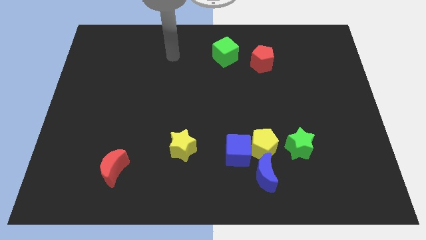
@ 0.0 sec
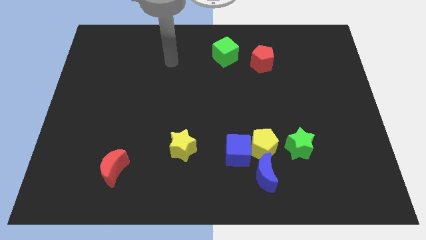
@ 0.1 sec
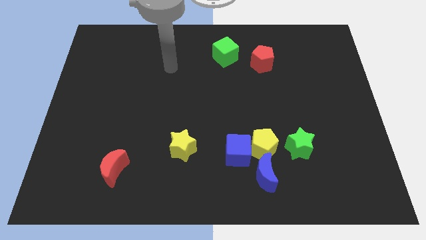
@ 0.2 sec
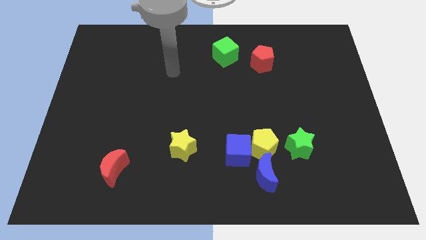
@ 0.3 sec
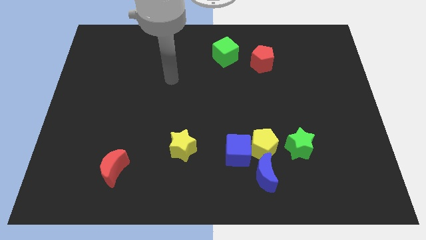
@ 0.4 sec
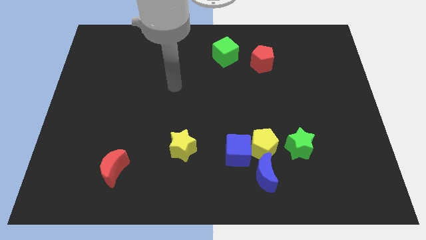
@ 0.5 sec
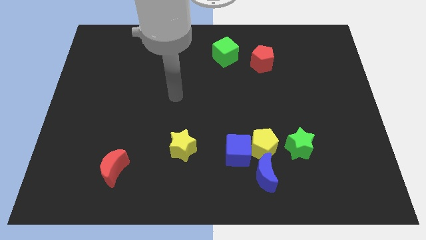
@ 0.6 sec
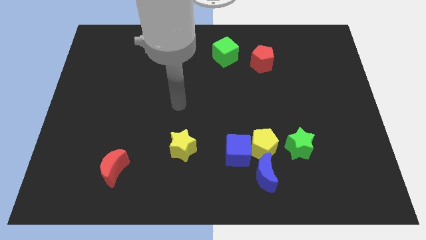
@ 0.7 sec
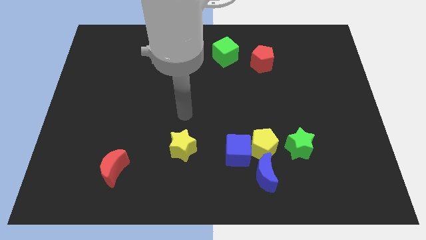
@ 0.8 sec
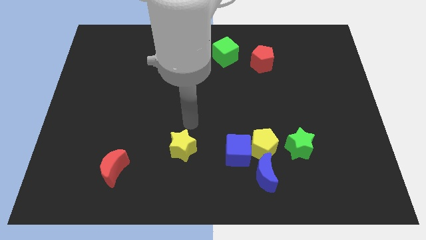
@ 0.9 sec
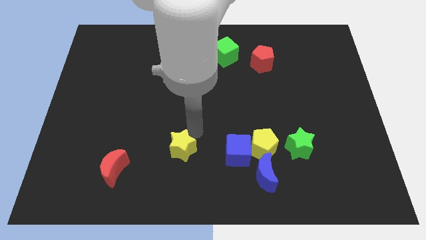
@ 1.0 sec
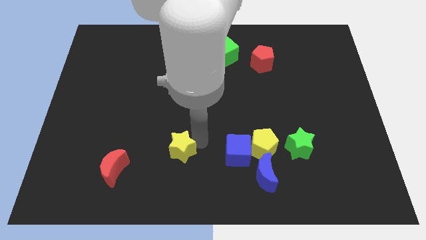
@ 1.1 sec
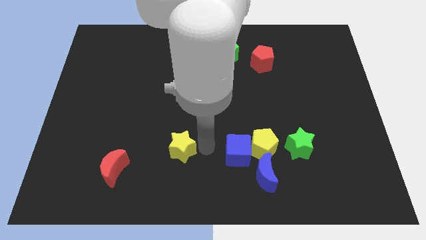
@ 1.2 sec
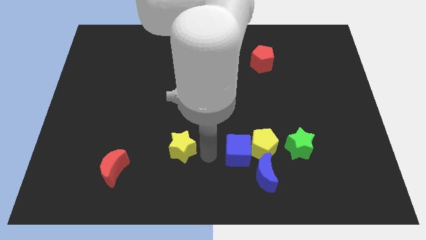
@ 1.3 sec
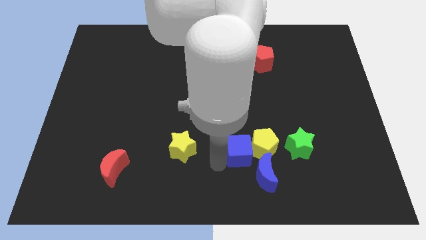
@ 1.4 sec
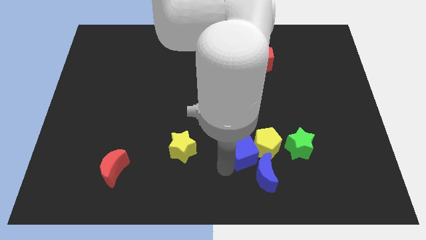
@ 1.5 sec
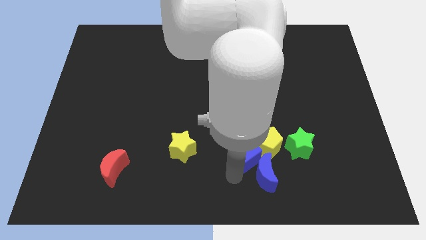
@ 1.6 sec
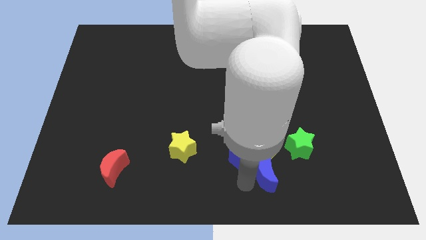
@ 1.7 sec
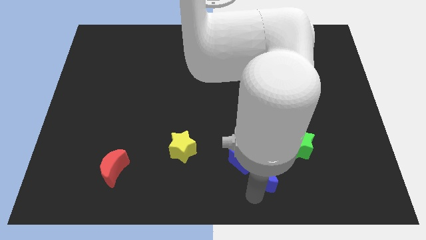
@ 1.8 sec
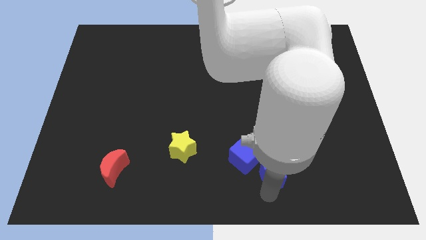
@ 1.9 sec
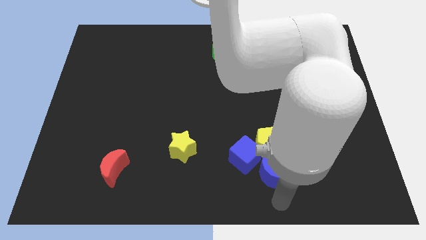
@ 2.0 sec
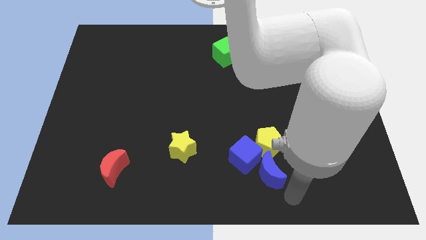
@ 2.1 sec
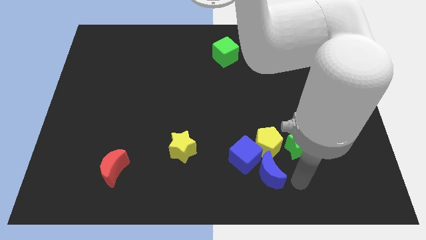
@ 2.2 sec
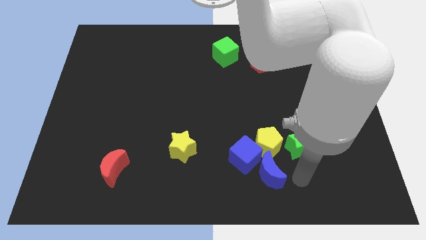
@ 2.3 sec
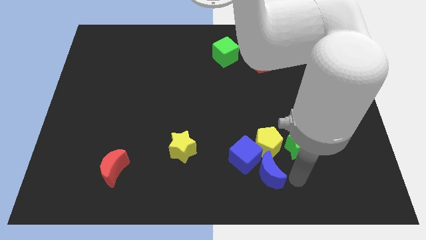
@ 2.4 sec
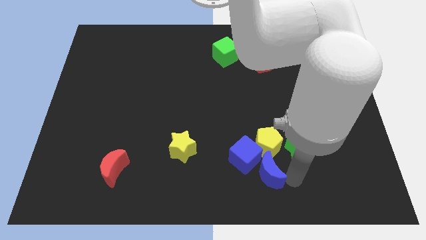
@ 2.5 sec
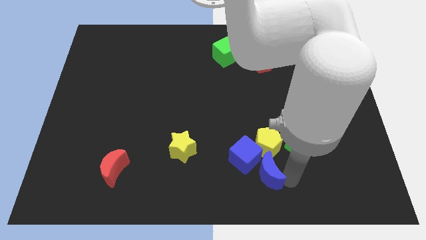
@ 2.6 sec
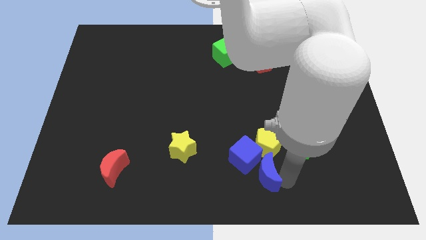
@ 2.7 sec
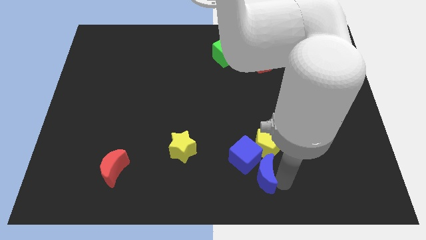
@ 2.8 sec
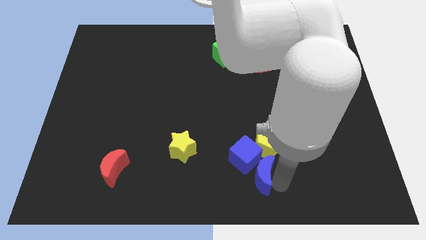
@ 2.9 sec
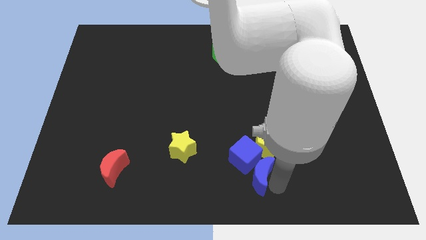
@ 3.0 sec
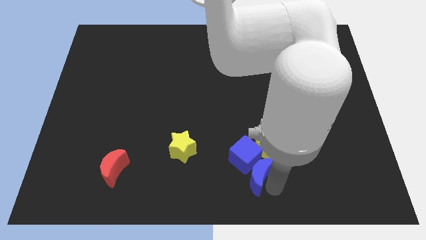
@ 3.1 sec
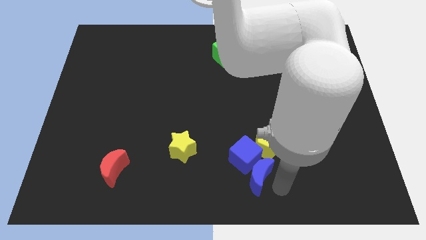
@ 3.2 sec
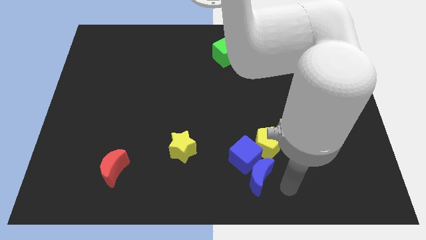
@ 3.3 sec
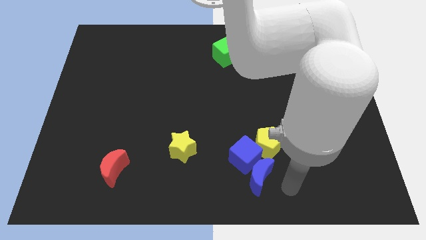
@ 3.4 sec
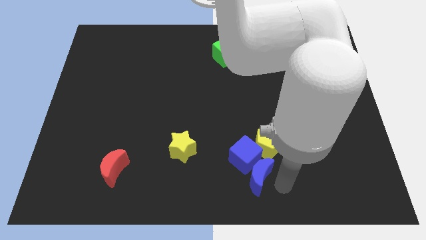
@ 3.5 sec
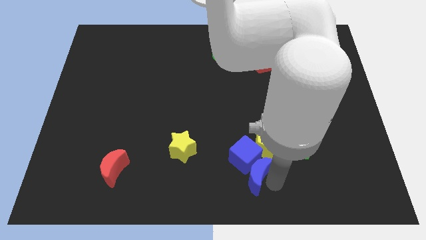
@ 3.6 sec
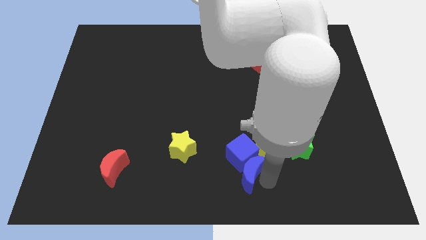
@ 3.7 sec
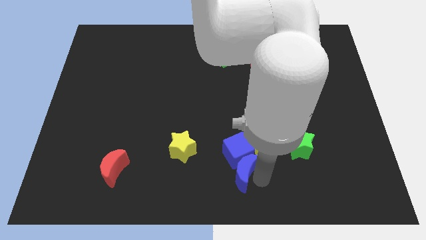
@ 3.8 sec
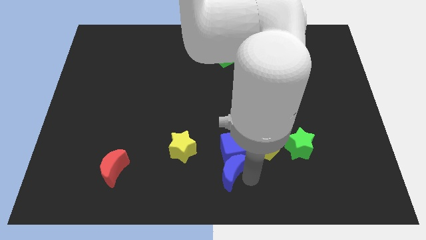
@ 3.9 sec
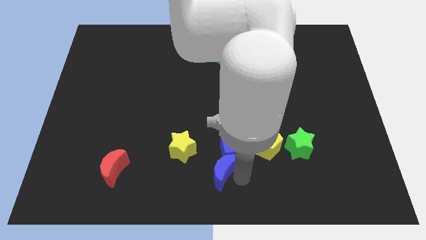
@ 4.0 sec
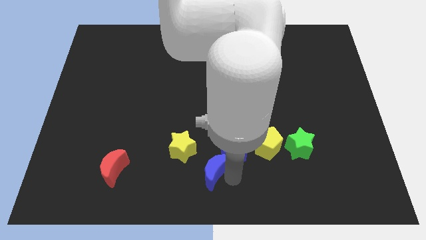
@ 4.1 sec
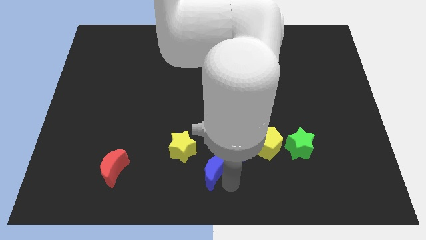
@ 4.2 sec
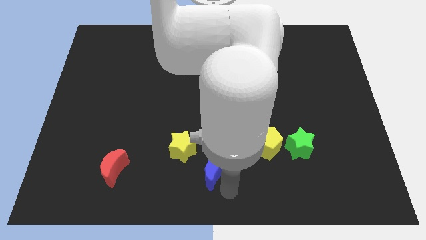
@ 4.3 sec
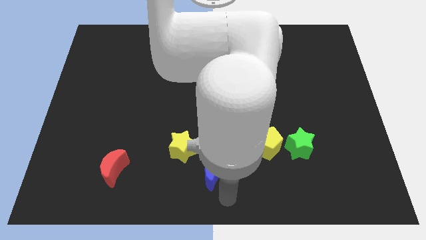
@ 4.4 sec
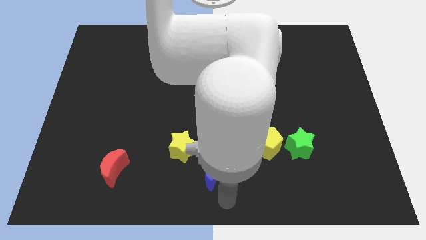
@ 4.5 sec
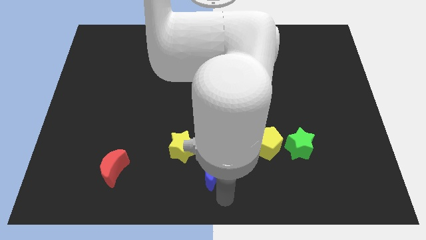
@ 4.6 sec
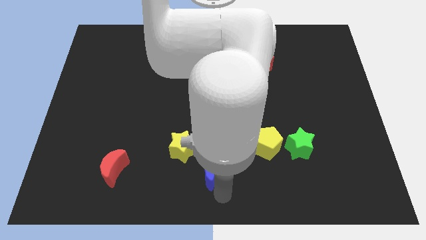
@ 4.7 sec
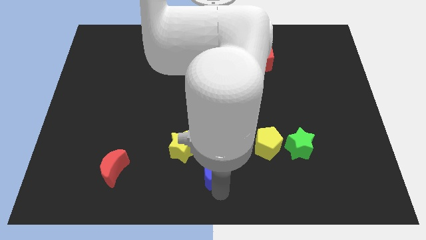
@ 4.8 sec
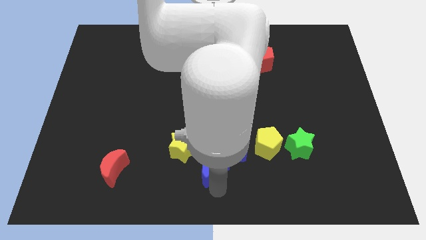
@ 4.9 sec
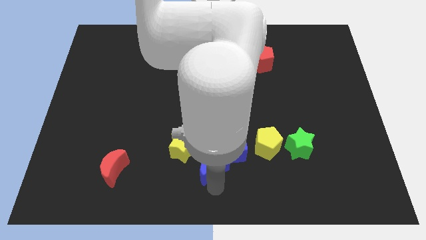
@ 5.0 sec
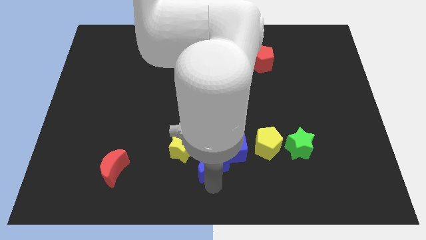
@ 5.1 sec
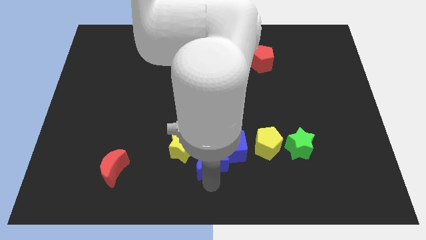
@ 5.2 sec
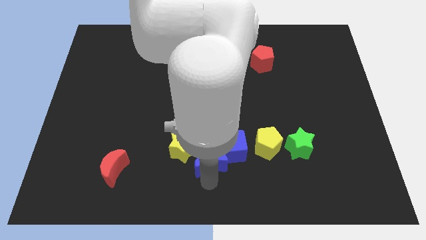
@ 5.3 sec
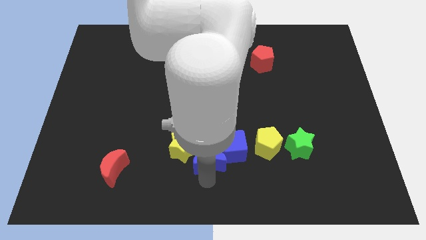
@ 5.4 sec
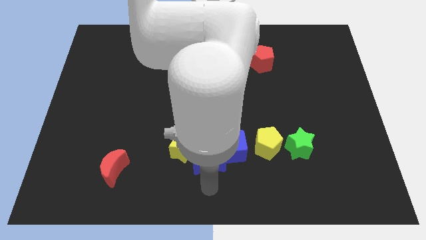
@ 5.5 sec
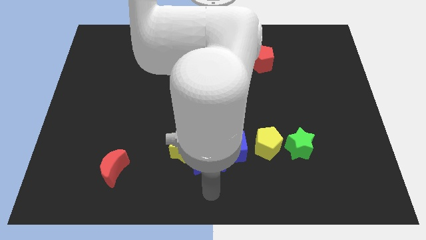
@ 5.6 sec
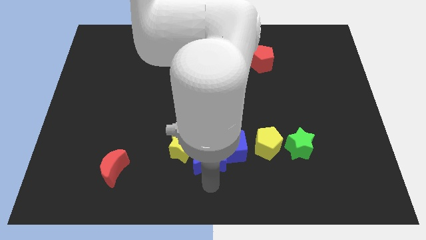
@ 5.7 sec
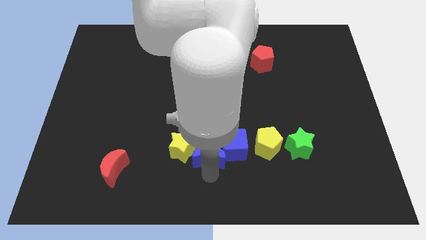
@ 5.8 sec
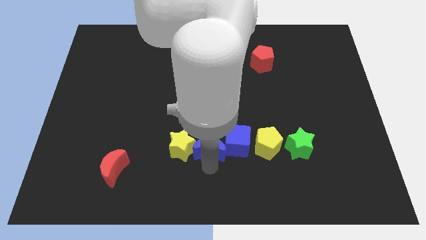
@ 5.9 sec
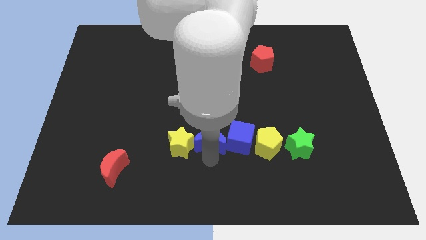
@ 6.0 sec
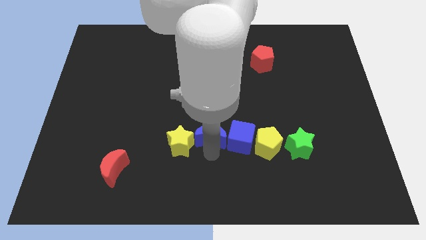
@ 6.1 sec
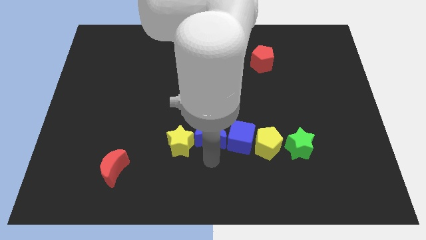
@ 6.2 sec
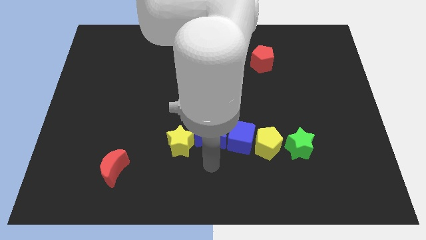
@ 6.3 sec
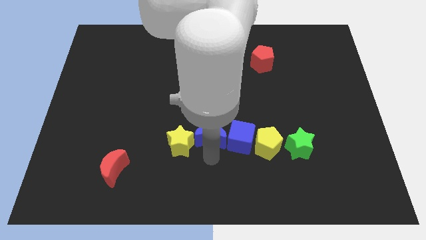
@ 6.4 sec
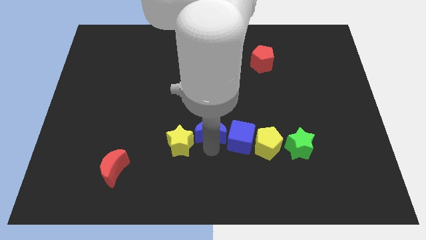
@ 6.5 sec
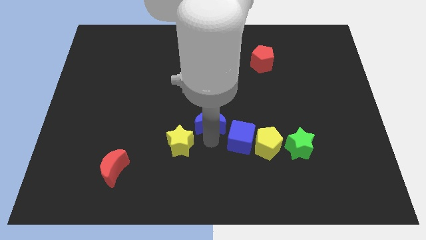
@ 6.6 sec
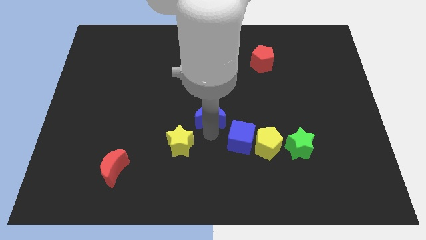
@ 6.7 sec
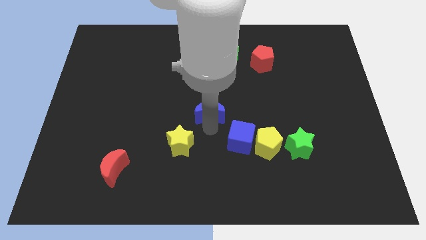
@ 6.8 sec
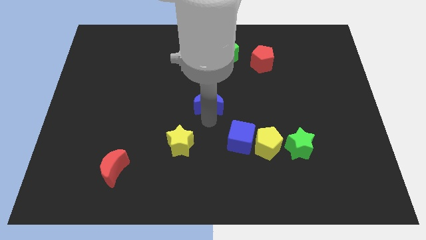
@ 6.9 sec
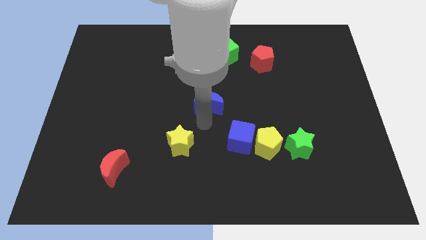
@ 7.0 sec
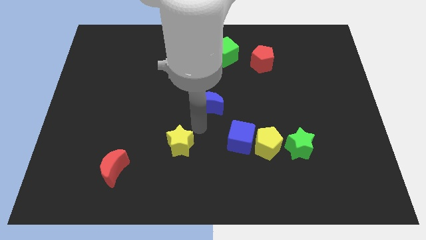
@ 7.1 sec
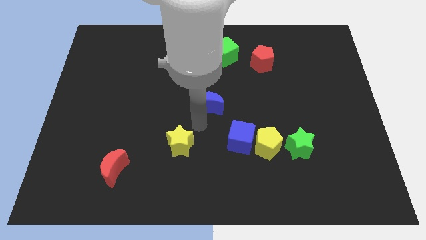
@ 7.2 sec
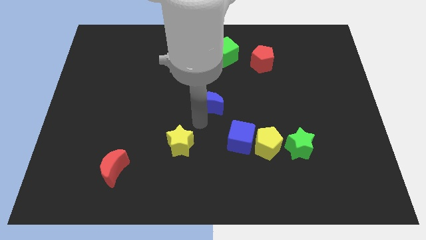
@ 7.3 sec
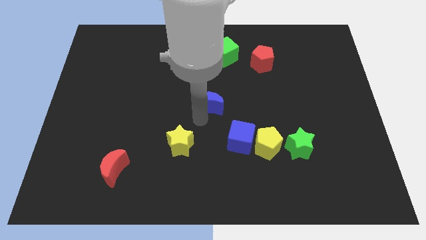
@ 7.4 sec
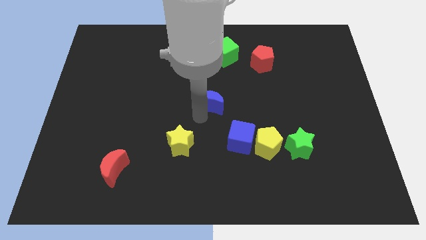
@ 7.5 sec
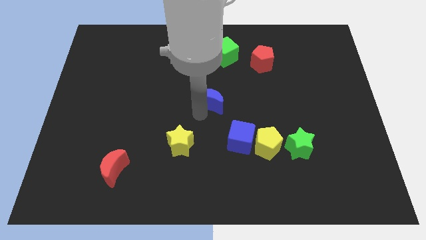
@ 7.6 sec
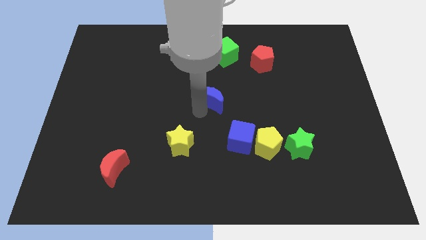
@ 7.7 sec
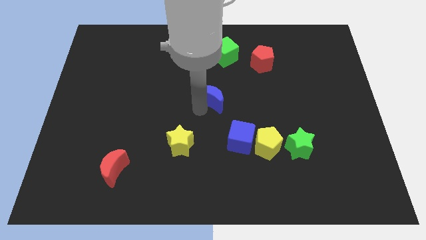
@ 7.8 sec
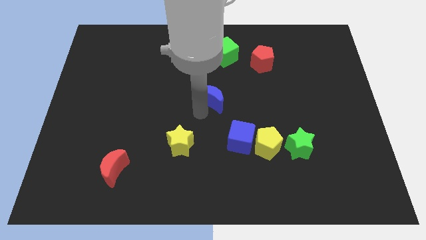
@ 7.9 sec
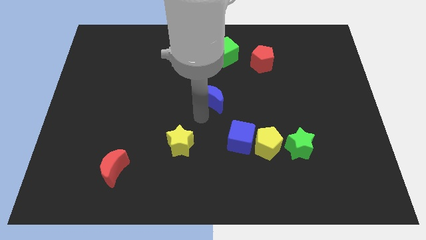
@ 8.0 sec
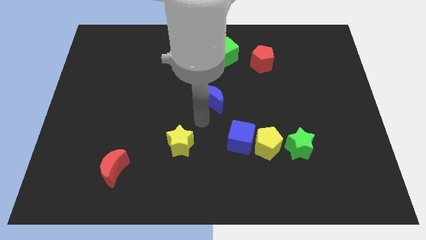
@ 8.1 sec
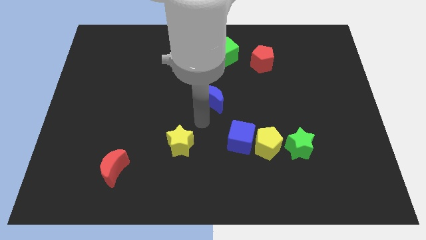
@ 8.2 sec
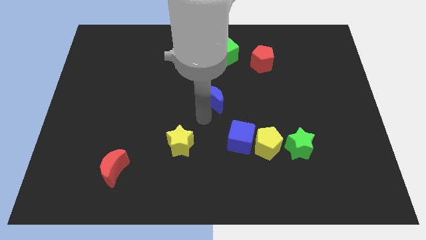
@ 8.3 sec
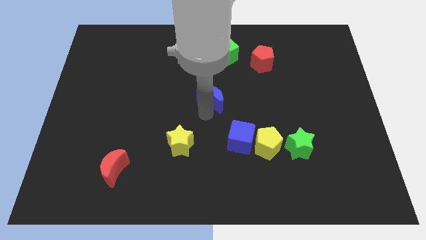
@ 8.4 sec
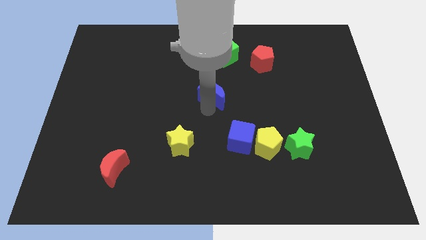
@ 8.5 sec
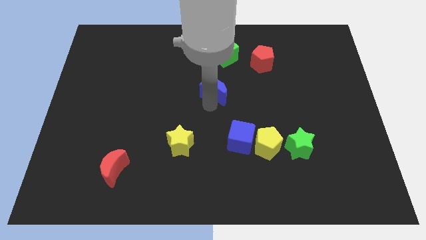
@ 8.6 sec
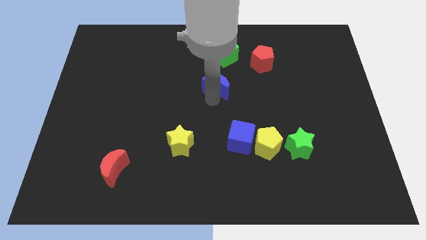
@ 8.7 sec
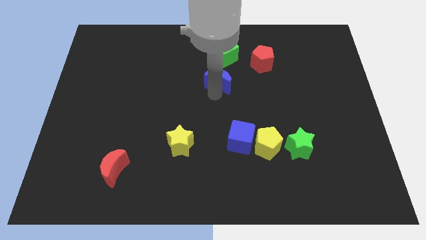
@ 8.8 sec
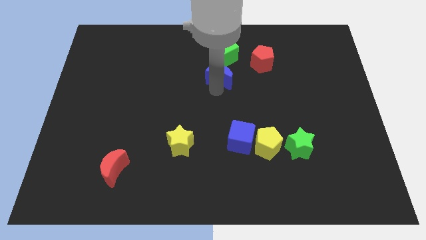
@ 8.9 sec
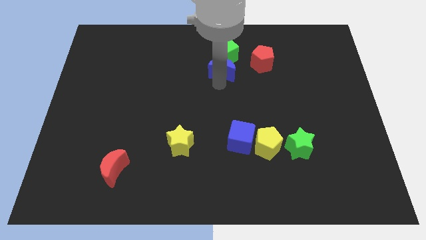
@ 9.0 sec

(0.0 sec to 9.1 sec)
move the blue moon towards the green cube
